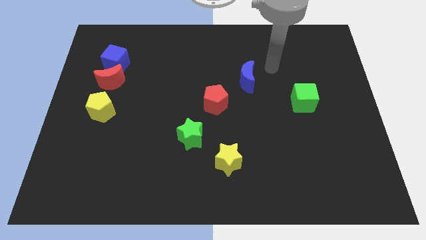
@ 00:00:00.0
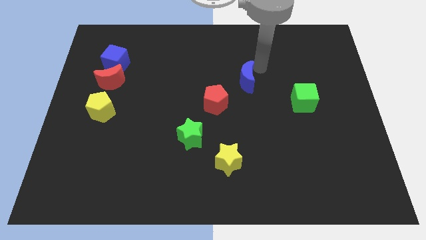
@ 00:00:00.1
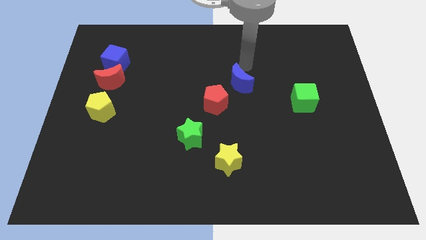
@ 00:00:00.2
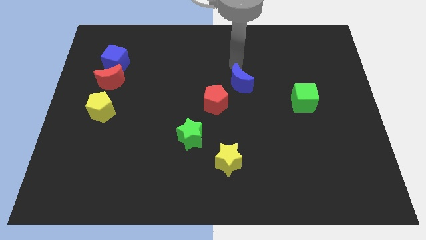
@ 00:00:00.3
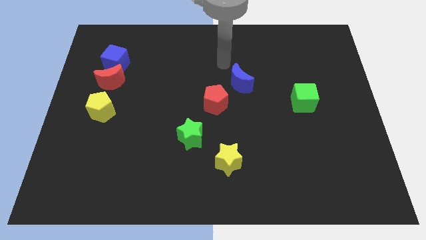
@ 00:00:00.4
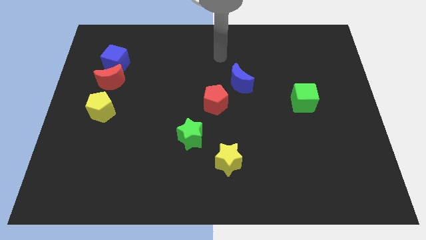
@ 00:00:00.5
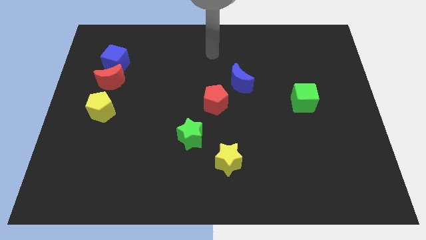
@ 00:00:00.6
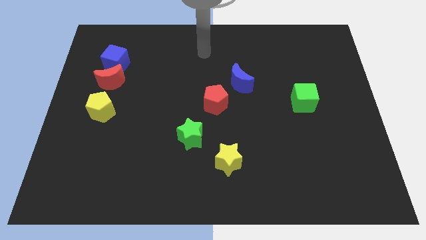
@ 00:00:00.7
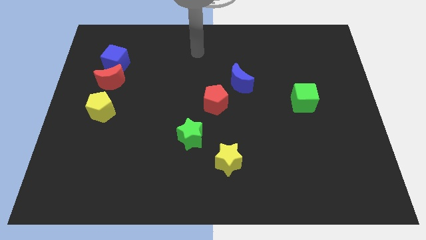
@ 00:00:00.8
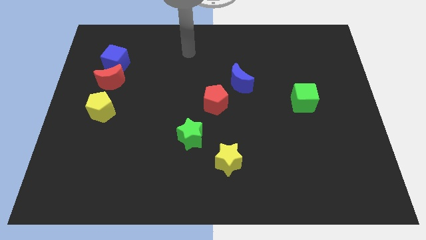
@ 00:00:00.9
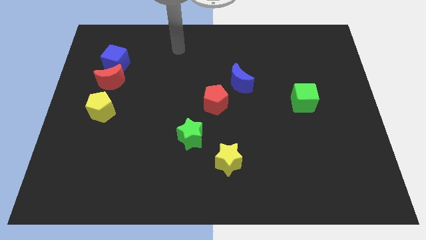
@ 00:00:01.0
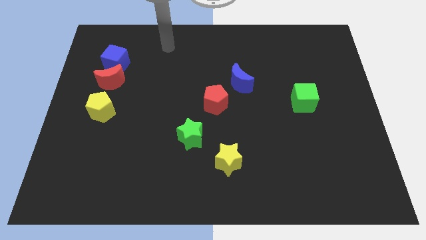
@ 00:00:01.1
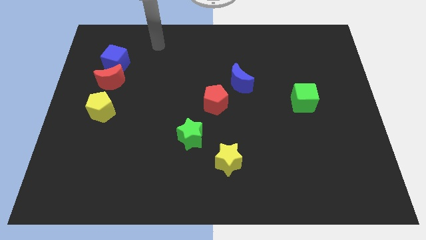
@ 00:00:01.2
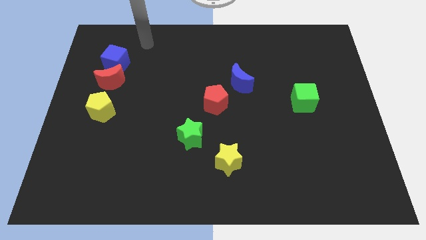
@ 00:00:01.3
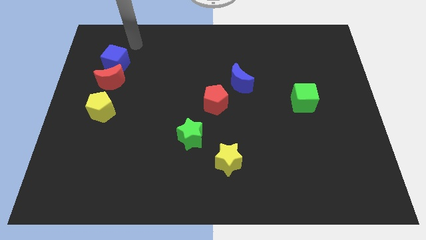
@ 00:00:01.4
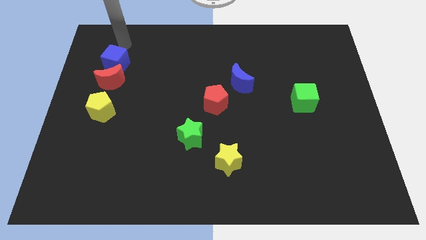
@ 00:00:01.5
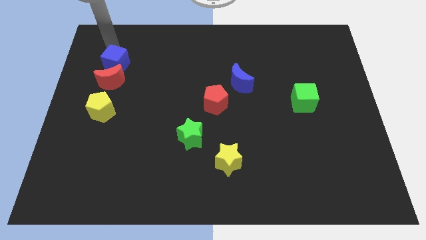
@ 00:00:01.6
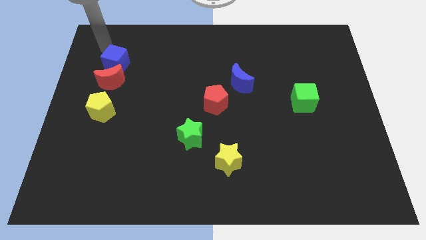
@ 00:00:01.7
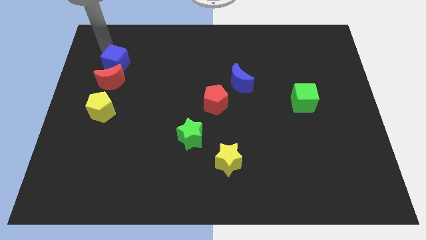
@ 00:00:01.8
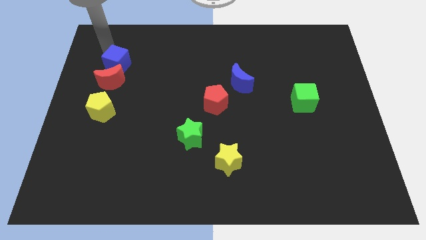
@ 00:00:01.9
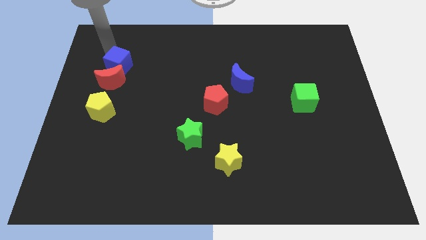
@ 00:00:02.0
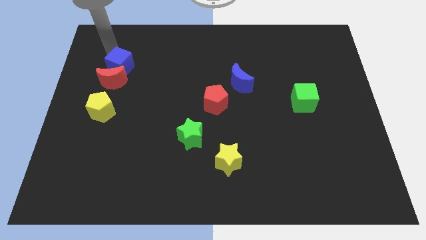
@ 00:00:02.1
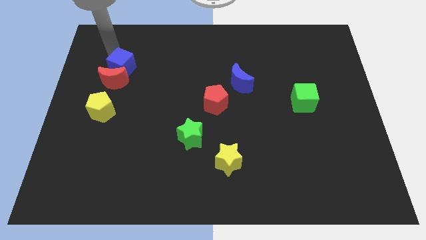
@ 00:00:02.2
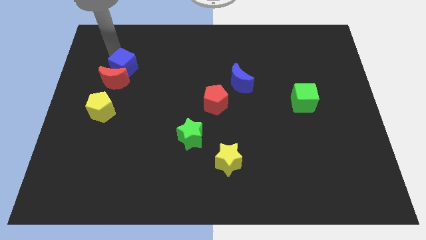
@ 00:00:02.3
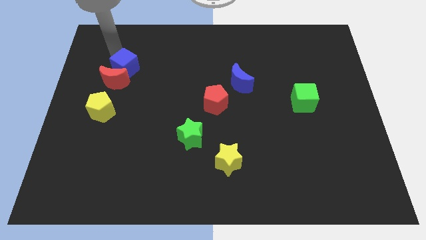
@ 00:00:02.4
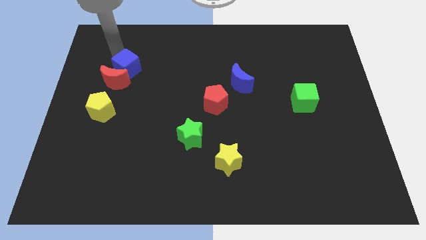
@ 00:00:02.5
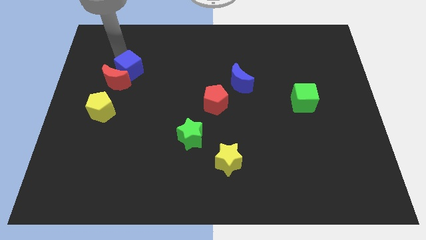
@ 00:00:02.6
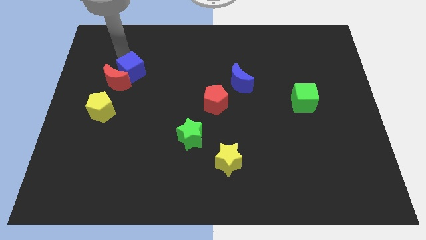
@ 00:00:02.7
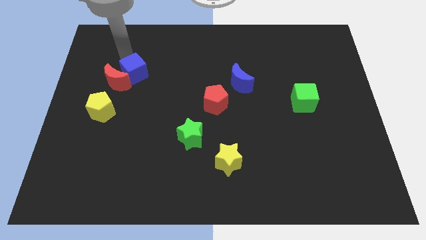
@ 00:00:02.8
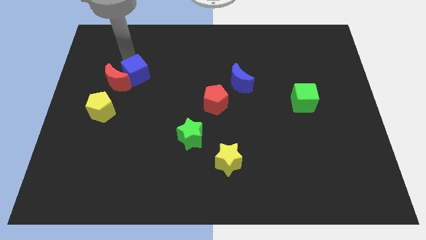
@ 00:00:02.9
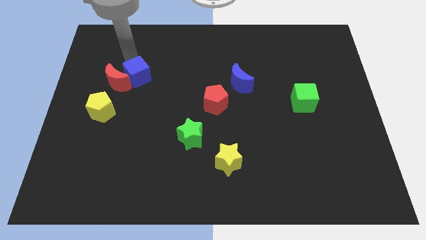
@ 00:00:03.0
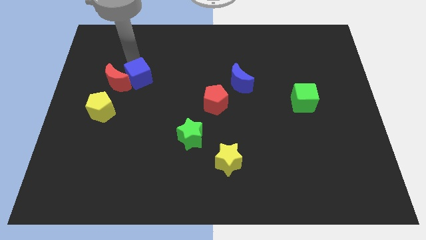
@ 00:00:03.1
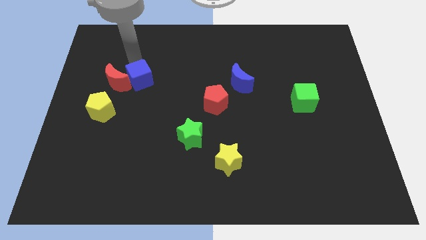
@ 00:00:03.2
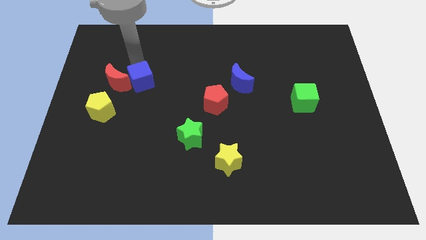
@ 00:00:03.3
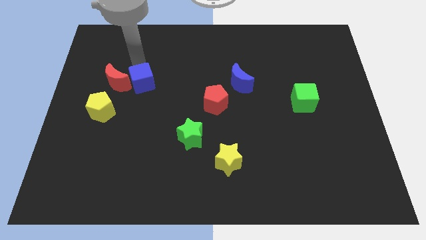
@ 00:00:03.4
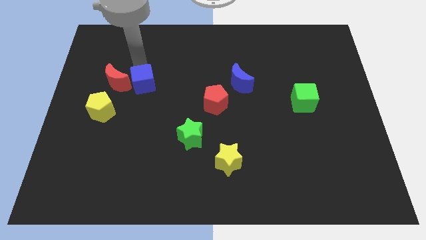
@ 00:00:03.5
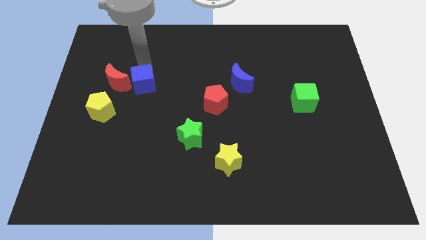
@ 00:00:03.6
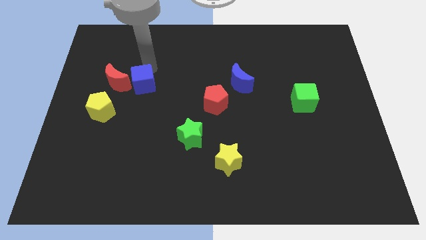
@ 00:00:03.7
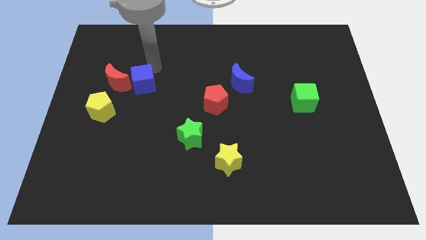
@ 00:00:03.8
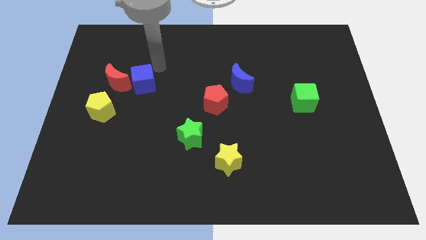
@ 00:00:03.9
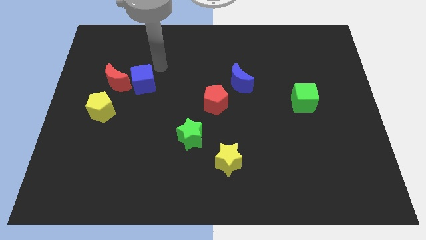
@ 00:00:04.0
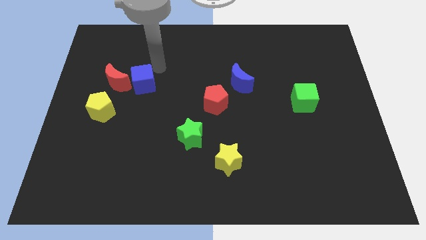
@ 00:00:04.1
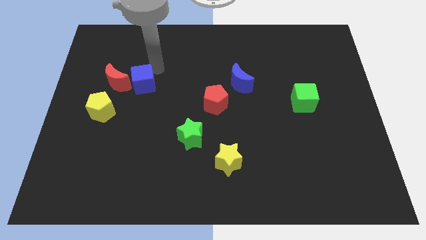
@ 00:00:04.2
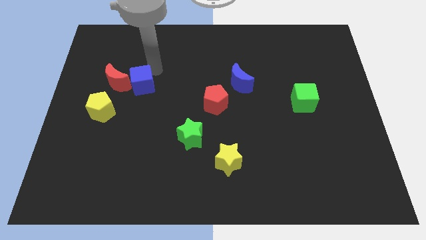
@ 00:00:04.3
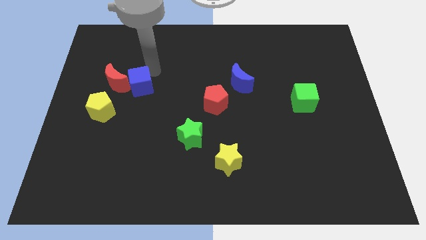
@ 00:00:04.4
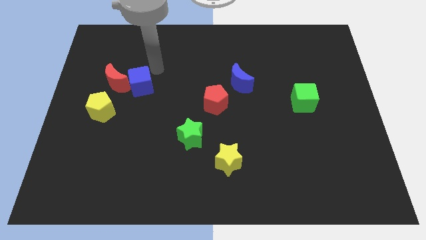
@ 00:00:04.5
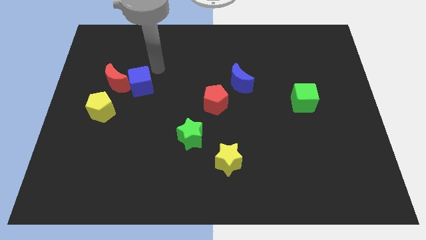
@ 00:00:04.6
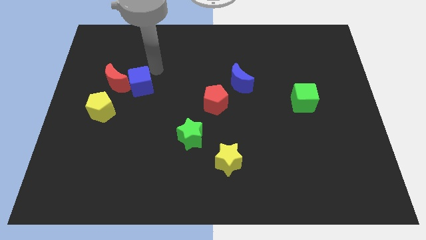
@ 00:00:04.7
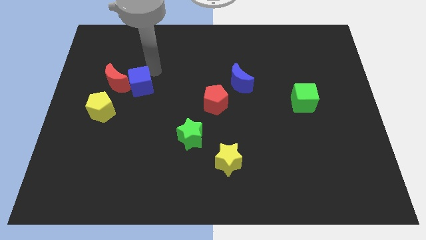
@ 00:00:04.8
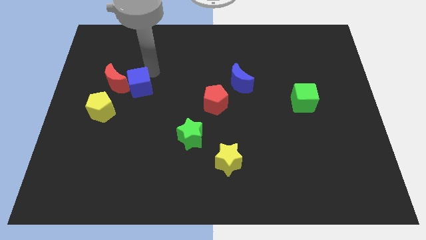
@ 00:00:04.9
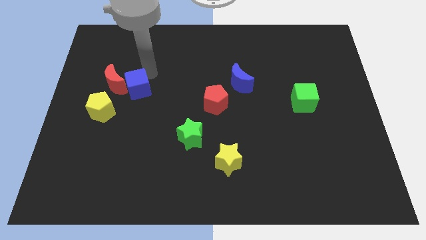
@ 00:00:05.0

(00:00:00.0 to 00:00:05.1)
slide the blue cube downwards a bit

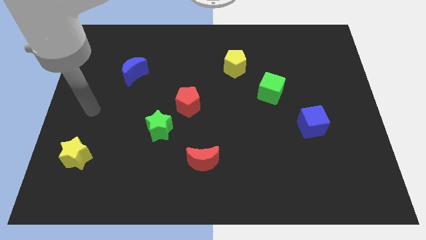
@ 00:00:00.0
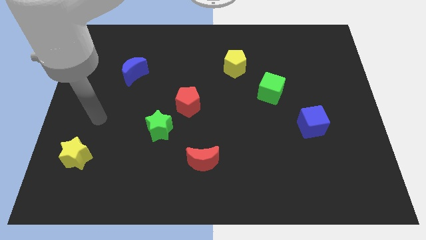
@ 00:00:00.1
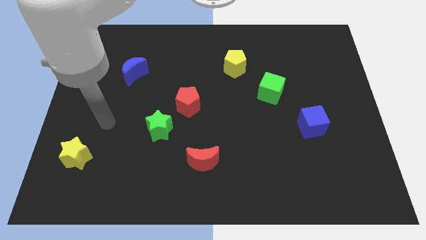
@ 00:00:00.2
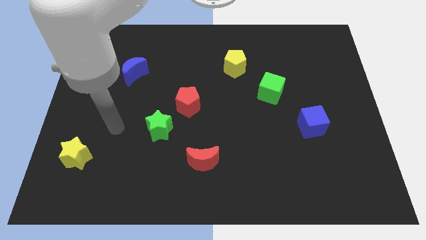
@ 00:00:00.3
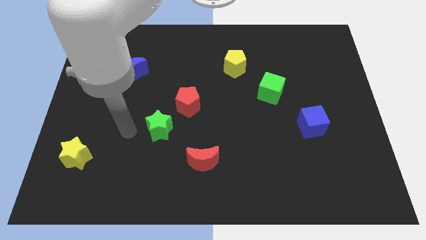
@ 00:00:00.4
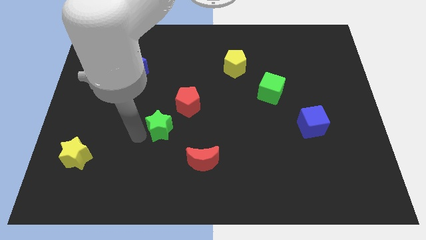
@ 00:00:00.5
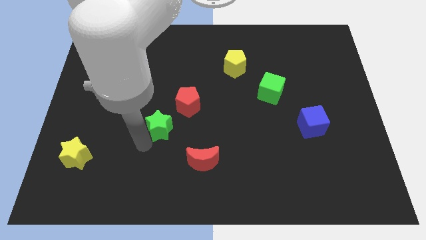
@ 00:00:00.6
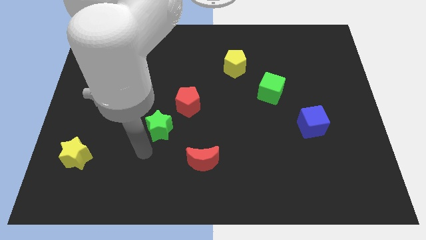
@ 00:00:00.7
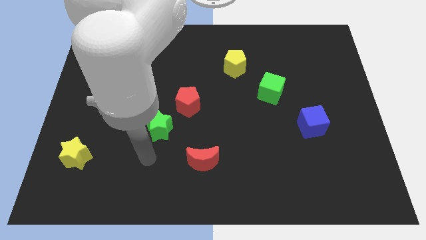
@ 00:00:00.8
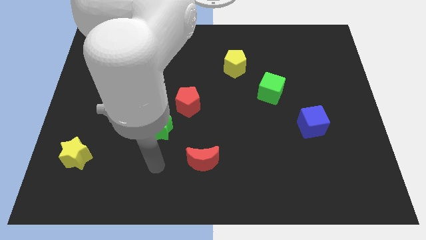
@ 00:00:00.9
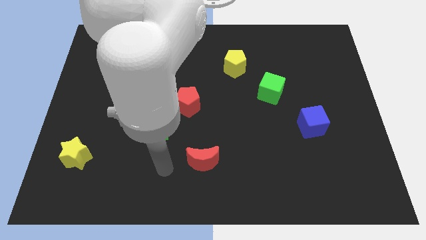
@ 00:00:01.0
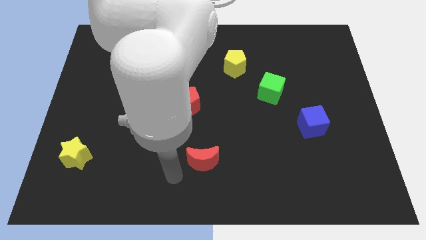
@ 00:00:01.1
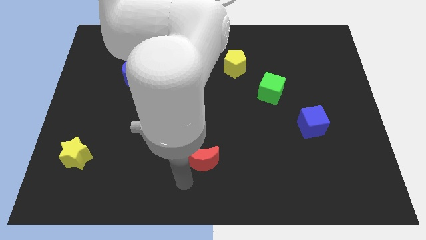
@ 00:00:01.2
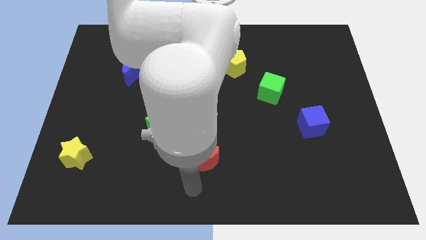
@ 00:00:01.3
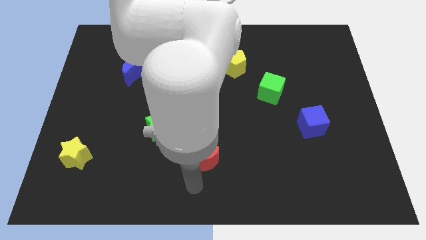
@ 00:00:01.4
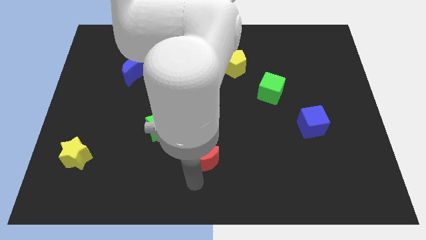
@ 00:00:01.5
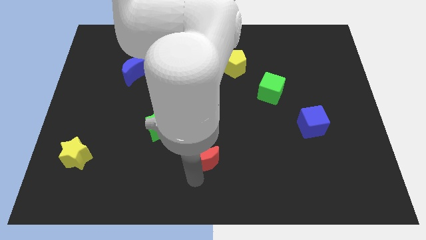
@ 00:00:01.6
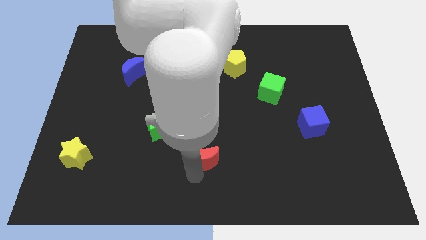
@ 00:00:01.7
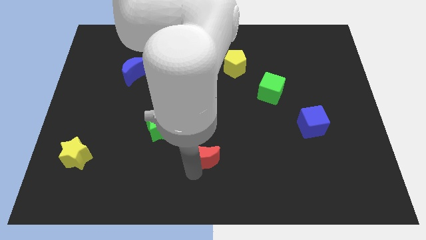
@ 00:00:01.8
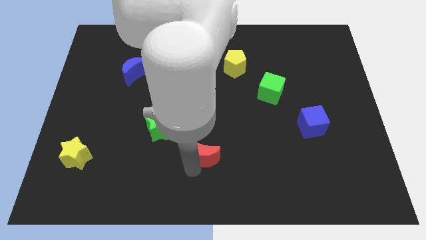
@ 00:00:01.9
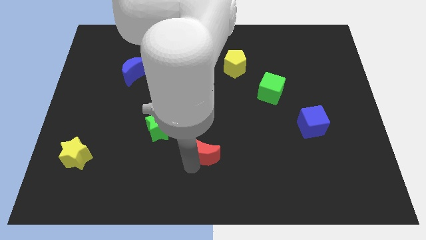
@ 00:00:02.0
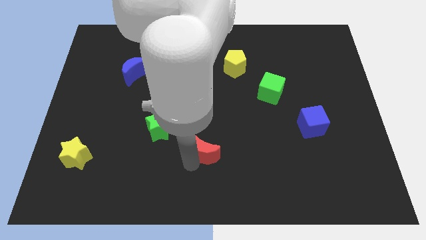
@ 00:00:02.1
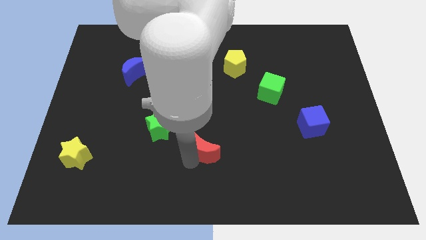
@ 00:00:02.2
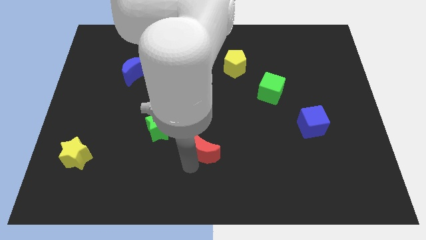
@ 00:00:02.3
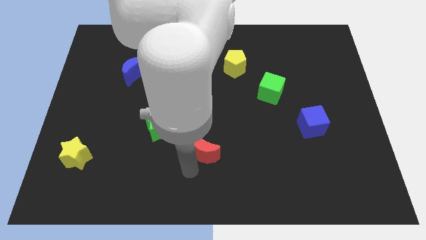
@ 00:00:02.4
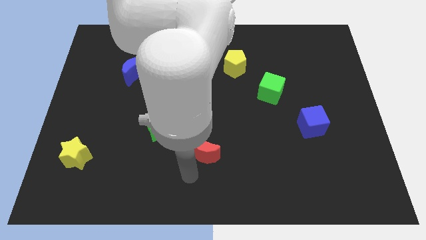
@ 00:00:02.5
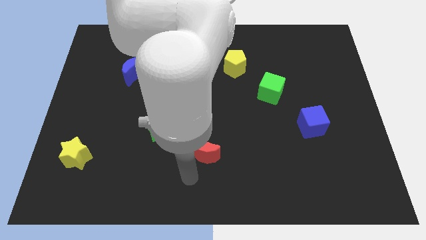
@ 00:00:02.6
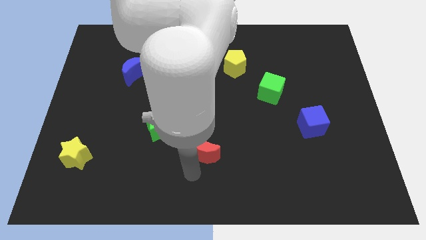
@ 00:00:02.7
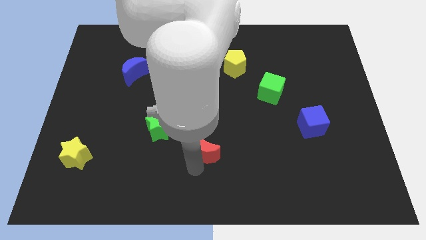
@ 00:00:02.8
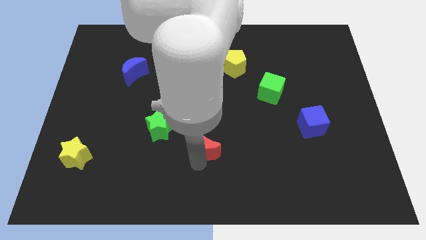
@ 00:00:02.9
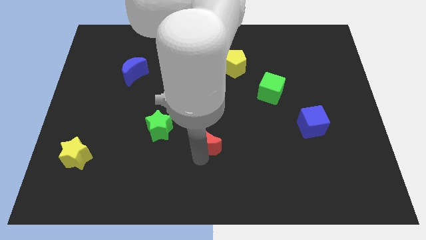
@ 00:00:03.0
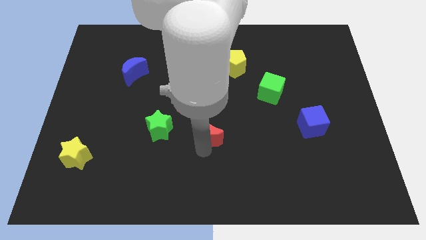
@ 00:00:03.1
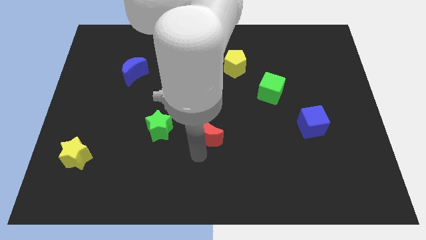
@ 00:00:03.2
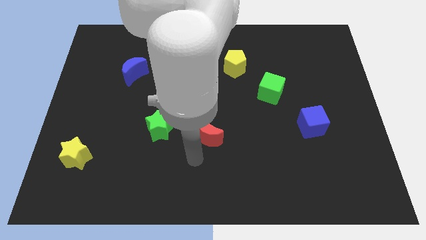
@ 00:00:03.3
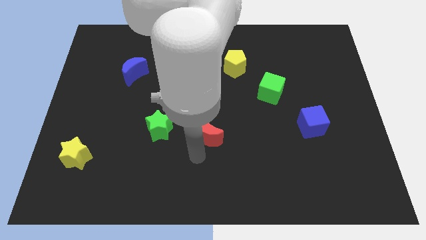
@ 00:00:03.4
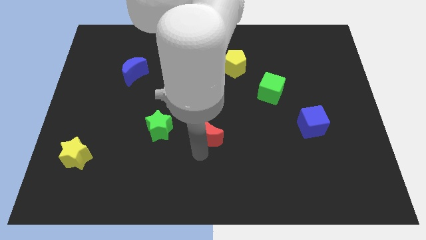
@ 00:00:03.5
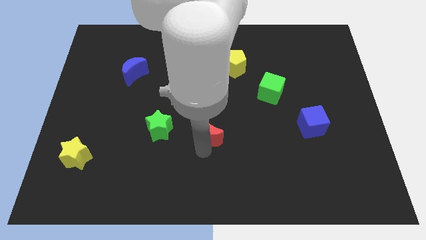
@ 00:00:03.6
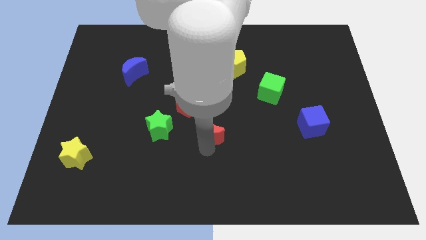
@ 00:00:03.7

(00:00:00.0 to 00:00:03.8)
slightly push the red moon upwards
